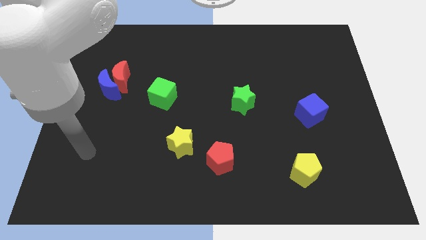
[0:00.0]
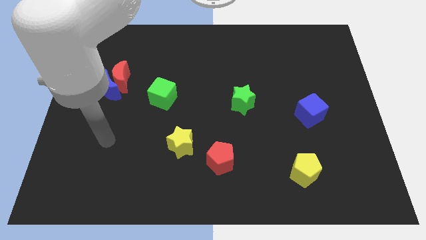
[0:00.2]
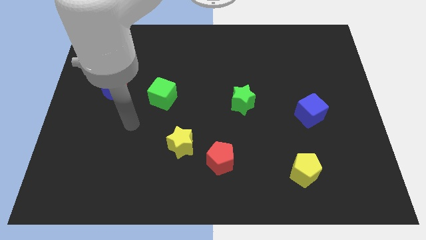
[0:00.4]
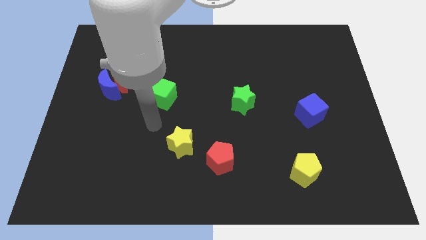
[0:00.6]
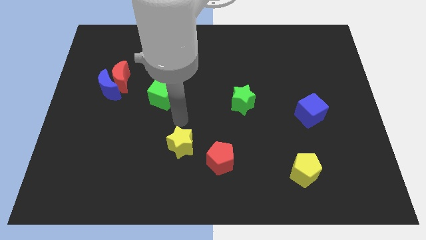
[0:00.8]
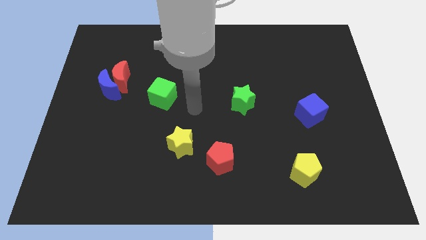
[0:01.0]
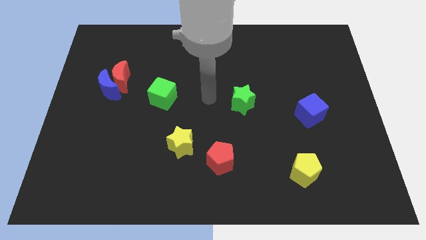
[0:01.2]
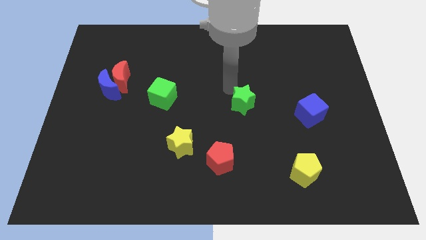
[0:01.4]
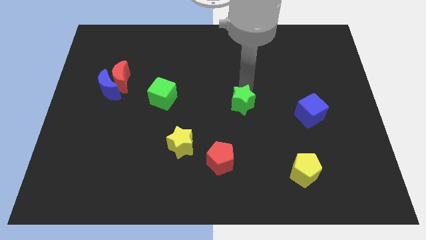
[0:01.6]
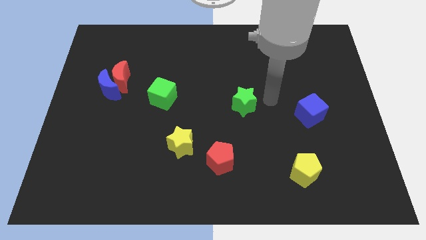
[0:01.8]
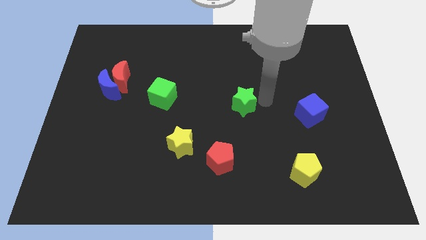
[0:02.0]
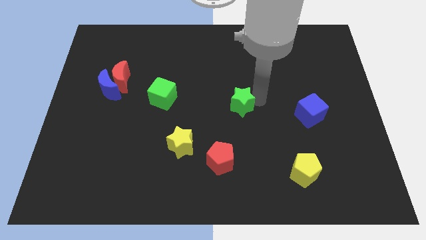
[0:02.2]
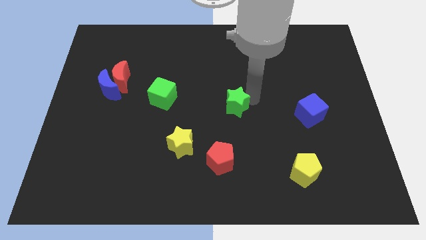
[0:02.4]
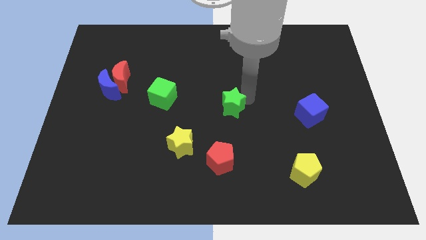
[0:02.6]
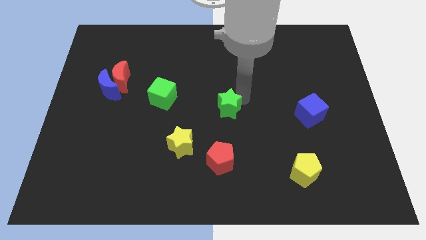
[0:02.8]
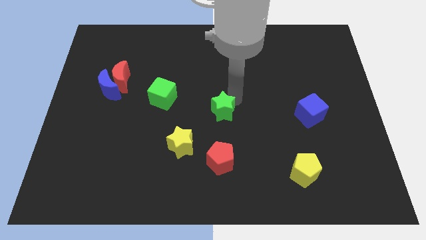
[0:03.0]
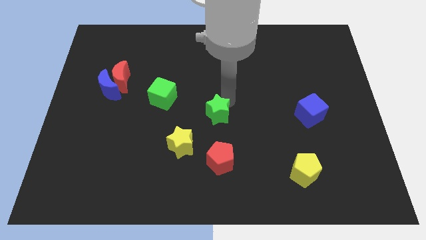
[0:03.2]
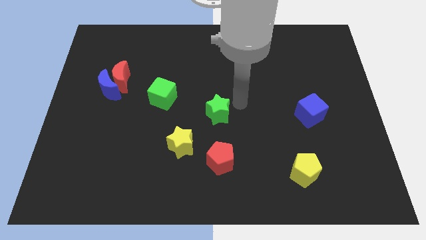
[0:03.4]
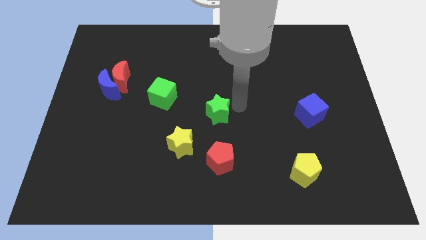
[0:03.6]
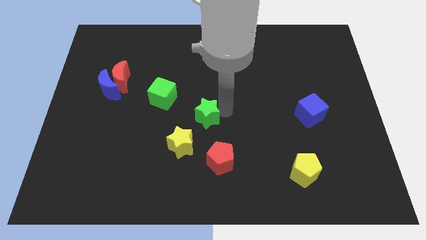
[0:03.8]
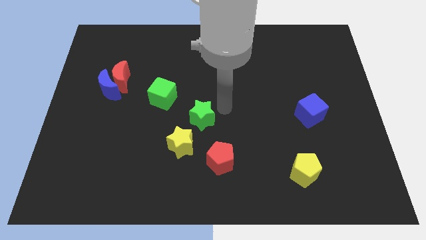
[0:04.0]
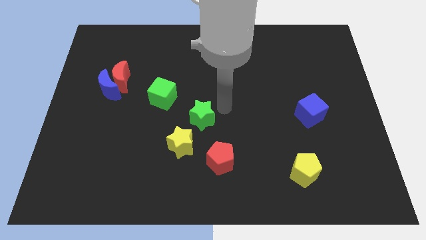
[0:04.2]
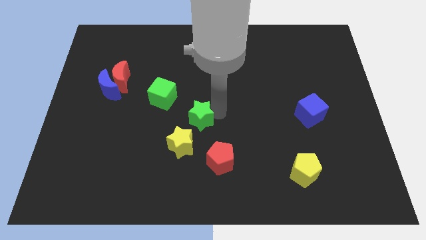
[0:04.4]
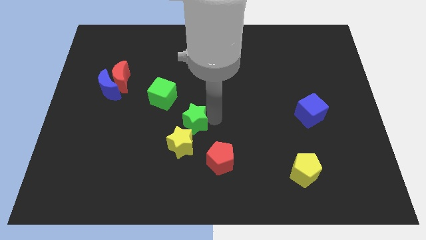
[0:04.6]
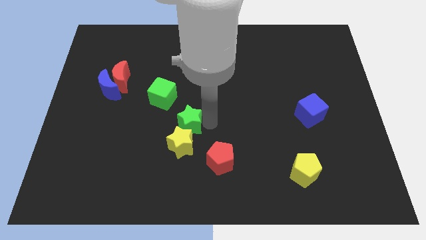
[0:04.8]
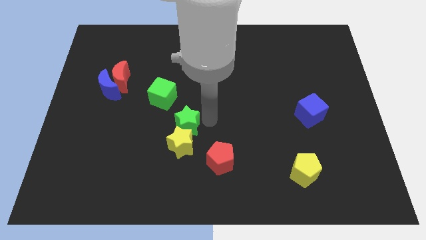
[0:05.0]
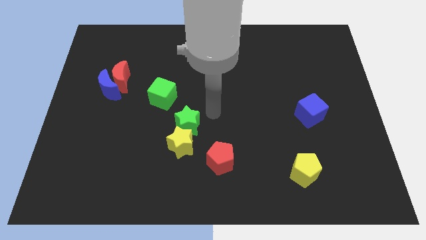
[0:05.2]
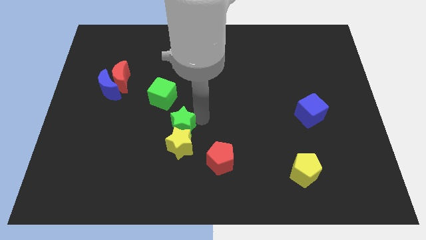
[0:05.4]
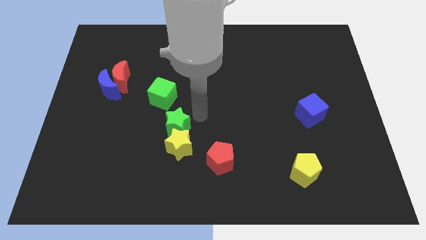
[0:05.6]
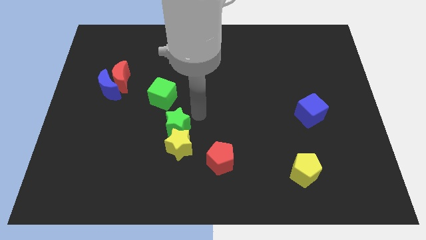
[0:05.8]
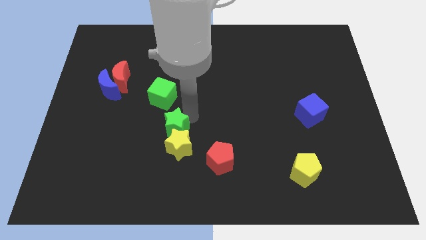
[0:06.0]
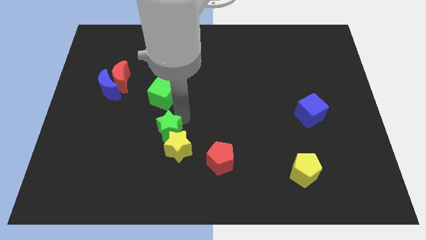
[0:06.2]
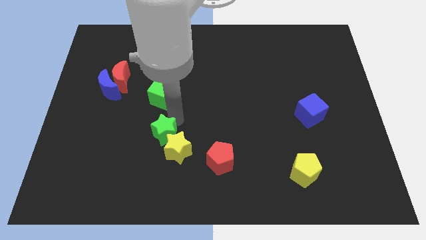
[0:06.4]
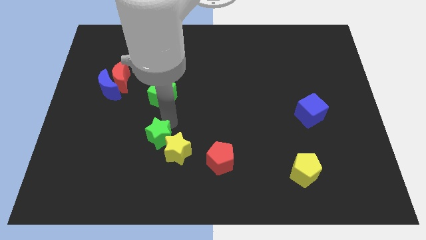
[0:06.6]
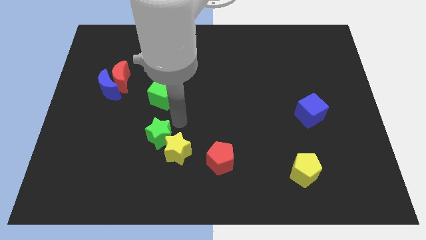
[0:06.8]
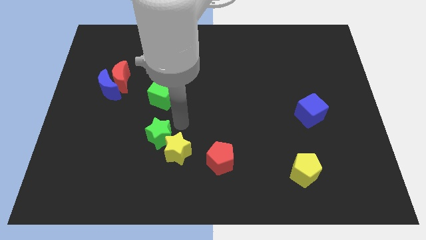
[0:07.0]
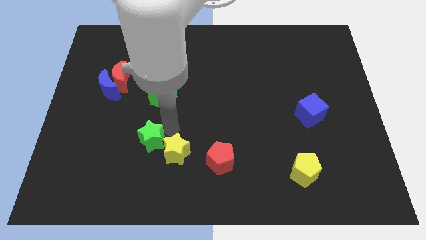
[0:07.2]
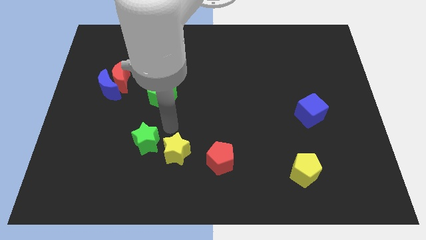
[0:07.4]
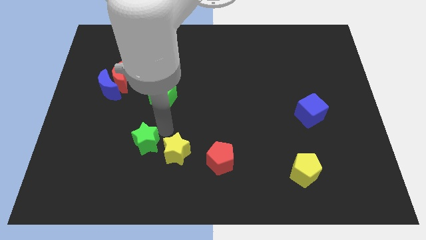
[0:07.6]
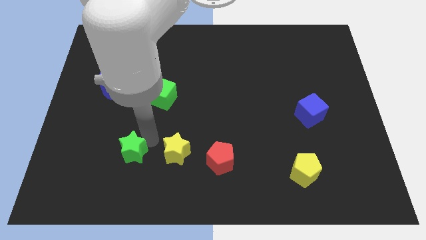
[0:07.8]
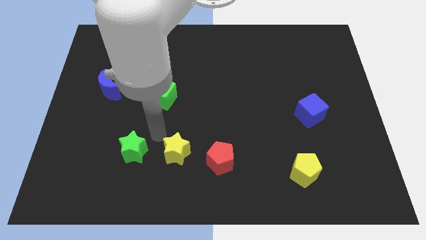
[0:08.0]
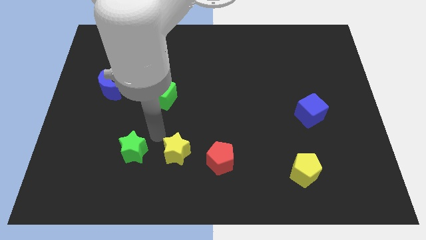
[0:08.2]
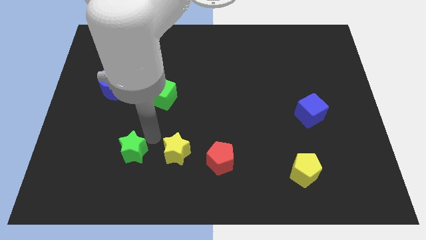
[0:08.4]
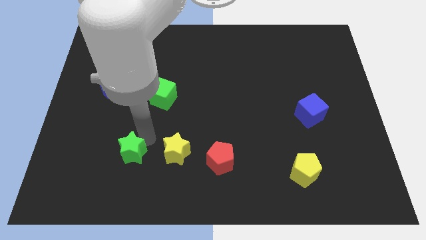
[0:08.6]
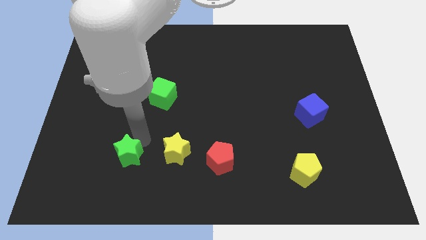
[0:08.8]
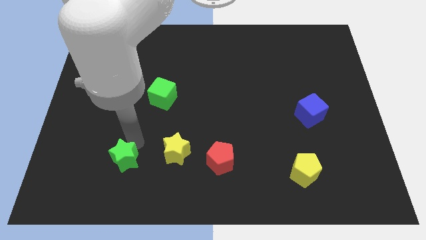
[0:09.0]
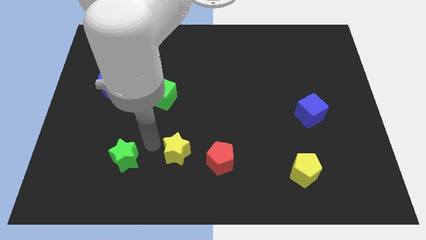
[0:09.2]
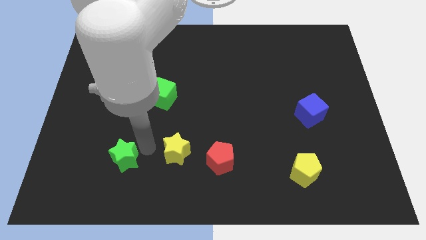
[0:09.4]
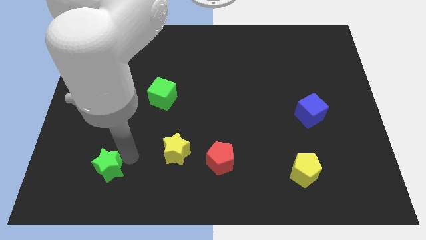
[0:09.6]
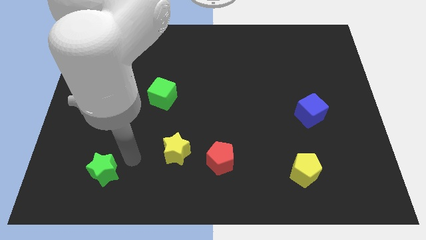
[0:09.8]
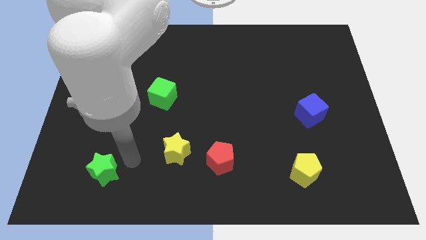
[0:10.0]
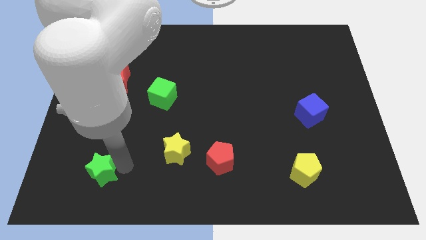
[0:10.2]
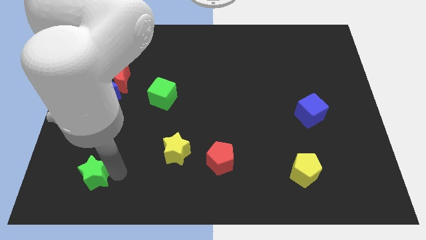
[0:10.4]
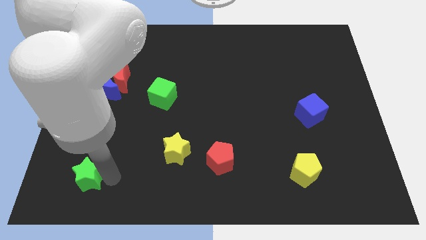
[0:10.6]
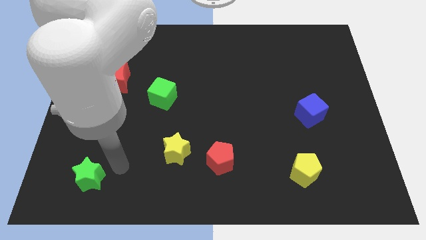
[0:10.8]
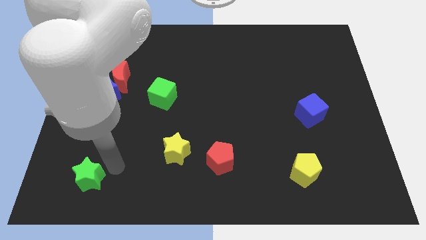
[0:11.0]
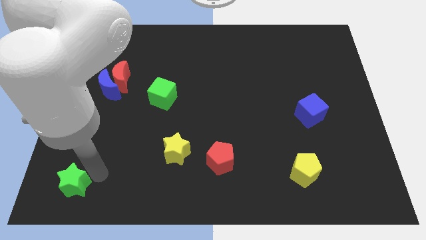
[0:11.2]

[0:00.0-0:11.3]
push the green star to the lower left corner
